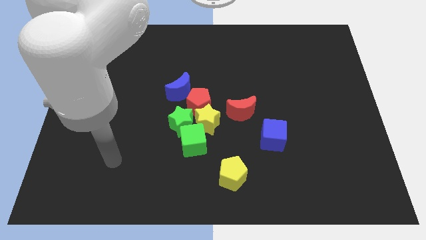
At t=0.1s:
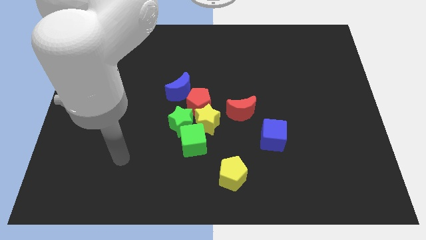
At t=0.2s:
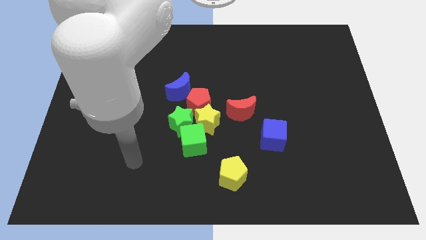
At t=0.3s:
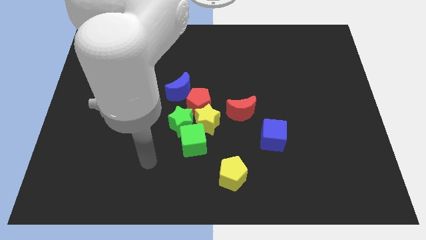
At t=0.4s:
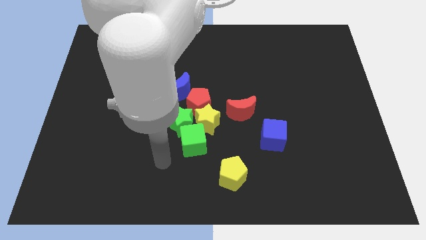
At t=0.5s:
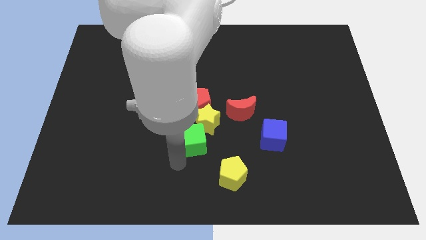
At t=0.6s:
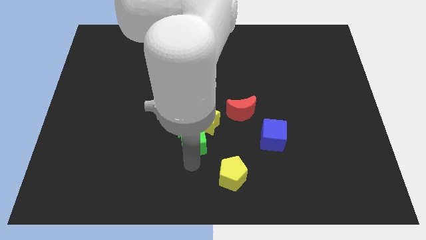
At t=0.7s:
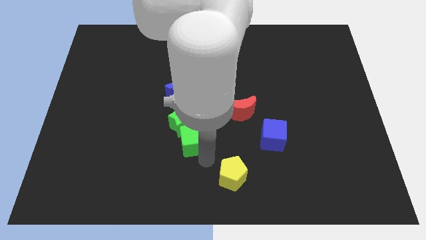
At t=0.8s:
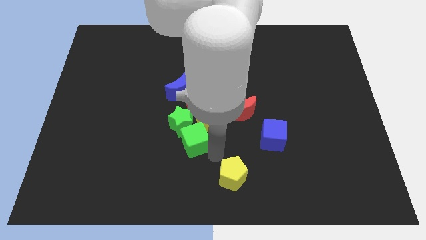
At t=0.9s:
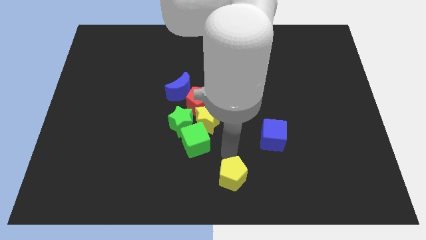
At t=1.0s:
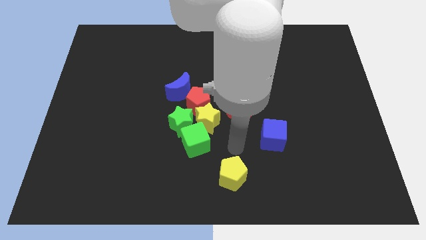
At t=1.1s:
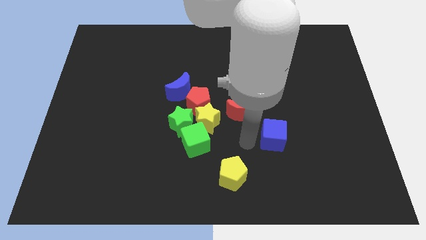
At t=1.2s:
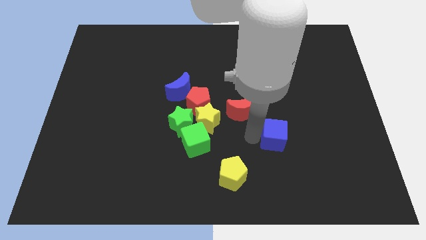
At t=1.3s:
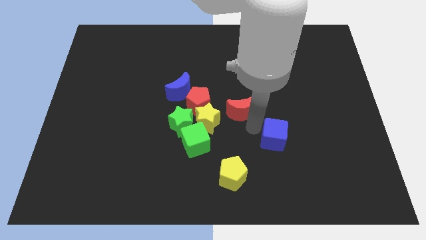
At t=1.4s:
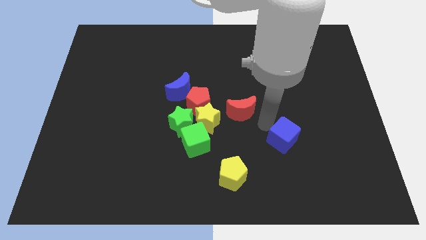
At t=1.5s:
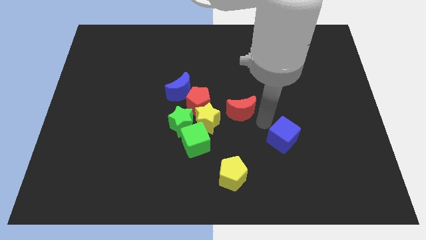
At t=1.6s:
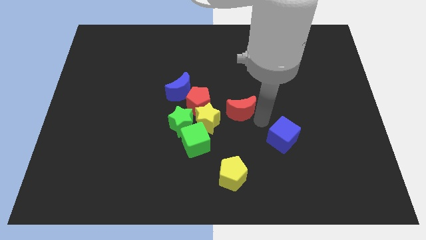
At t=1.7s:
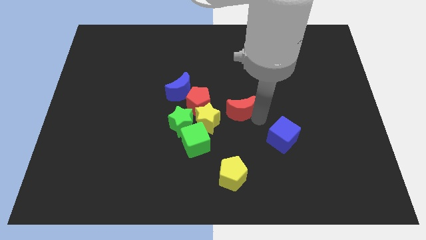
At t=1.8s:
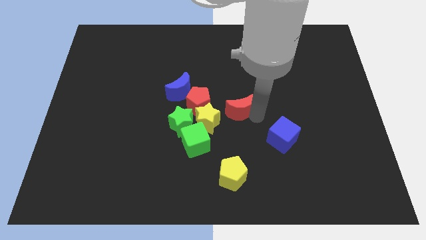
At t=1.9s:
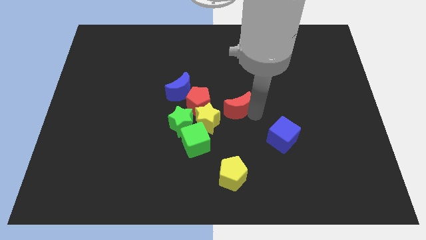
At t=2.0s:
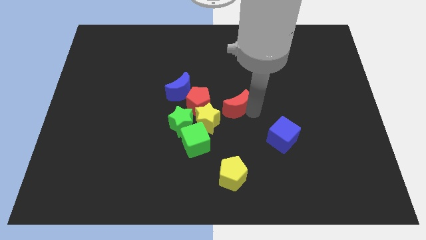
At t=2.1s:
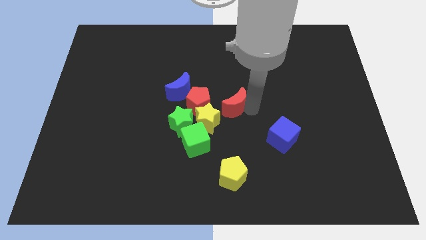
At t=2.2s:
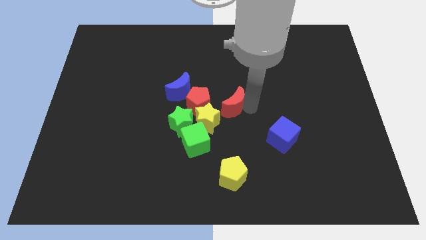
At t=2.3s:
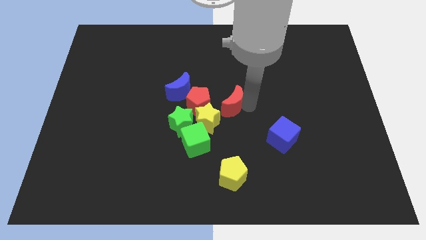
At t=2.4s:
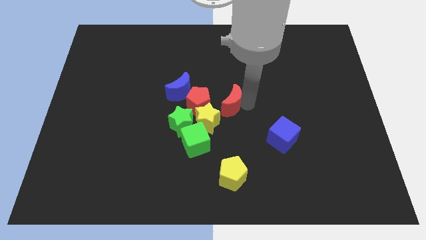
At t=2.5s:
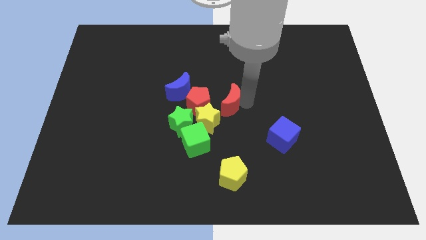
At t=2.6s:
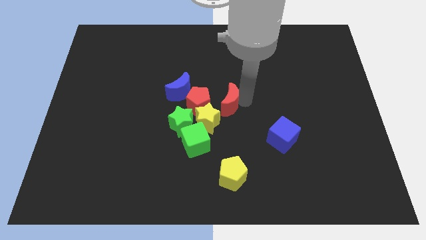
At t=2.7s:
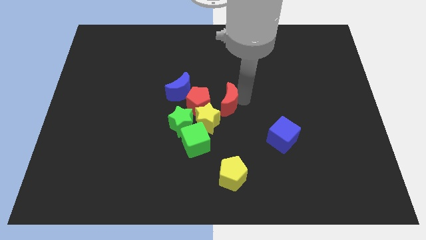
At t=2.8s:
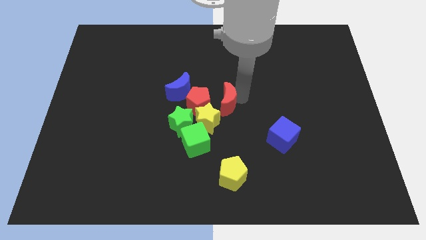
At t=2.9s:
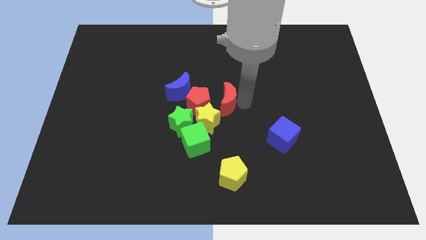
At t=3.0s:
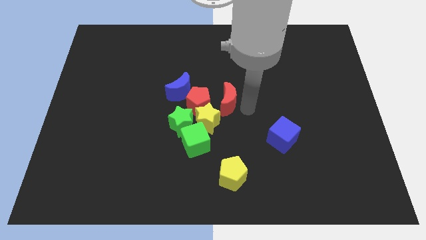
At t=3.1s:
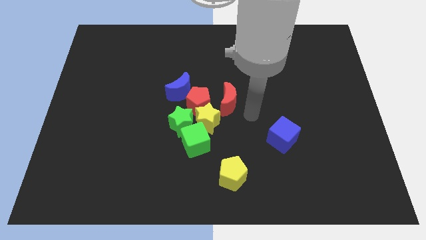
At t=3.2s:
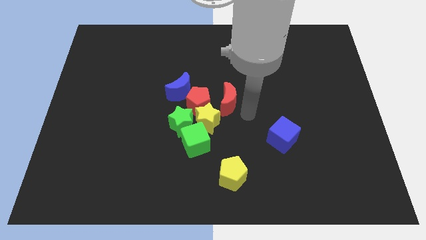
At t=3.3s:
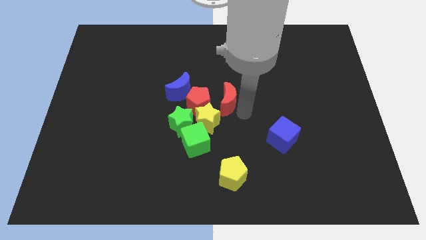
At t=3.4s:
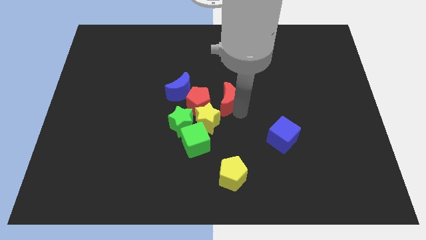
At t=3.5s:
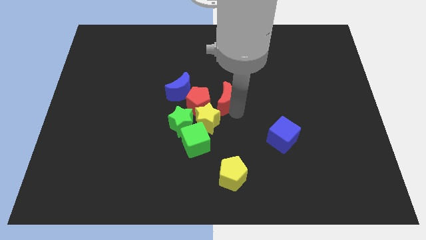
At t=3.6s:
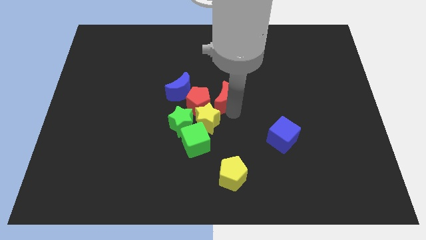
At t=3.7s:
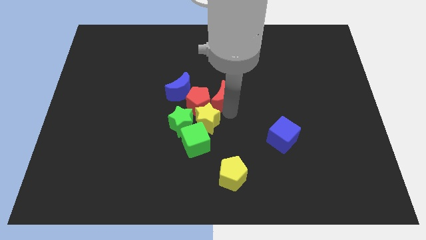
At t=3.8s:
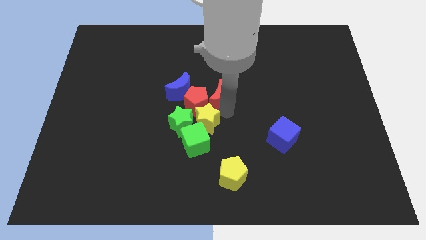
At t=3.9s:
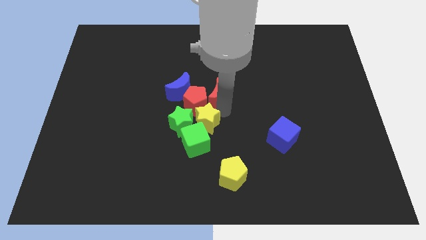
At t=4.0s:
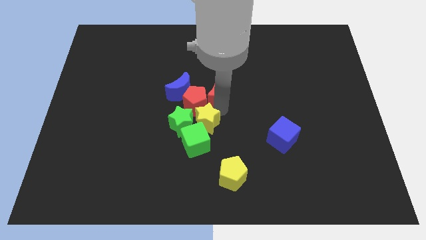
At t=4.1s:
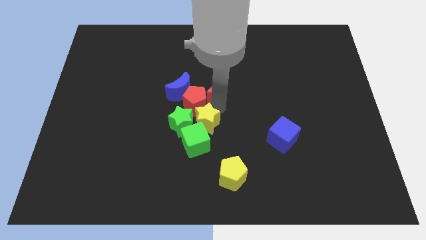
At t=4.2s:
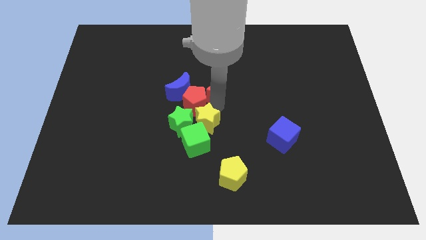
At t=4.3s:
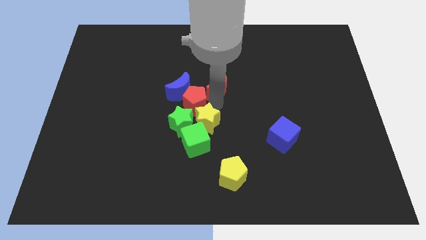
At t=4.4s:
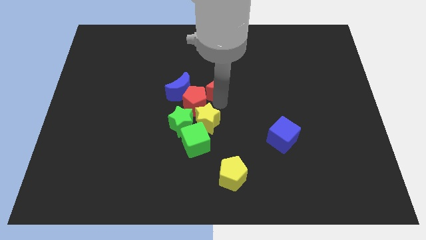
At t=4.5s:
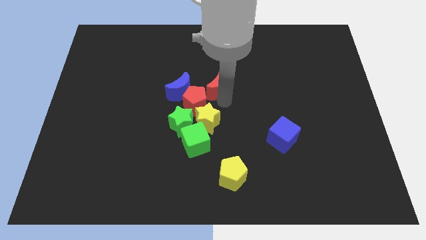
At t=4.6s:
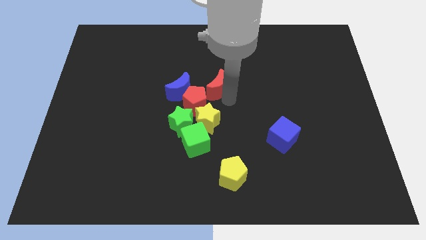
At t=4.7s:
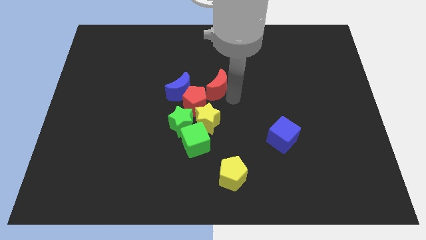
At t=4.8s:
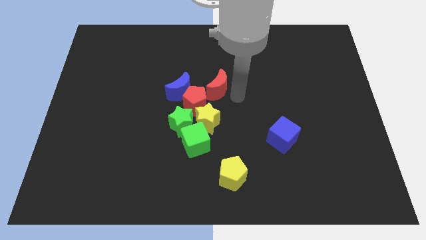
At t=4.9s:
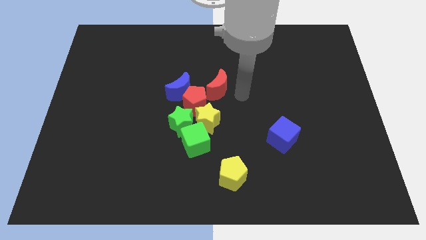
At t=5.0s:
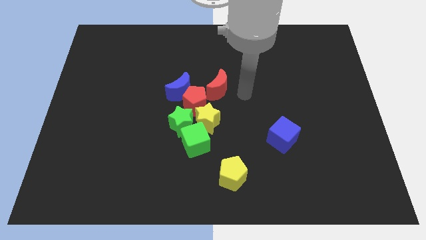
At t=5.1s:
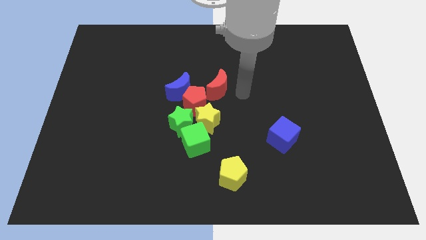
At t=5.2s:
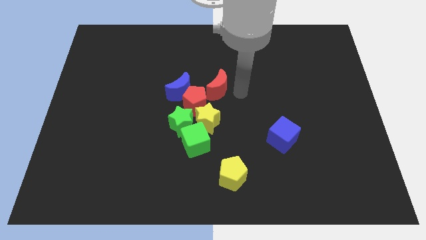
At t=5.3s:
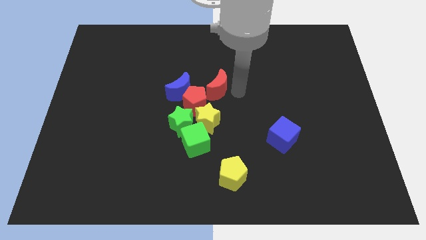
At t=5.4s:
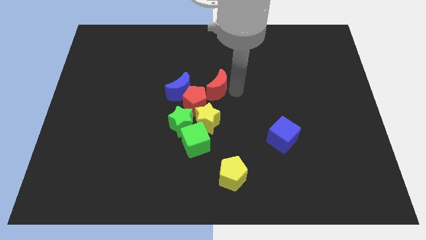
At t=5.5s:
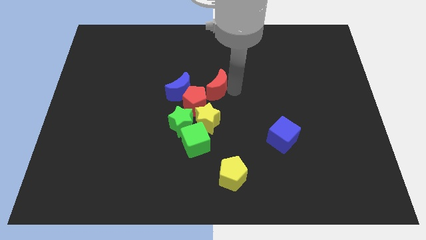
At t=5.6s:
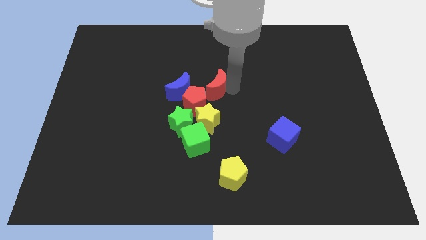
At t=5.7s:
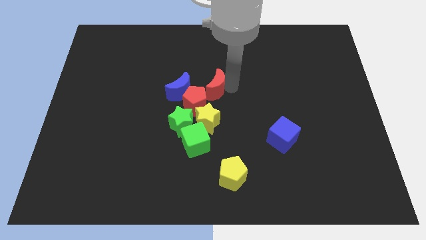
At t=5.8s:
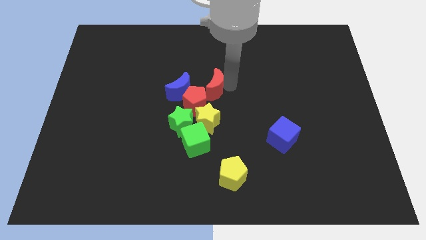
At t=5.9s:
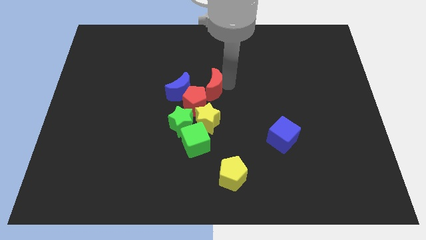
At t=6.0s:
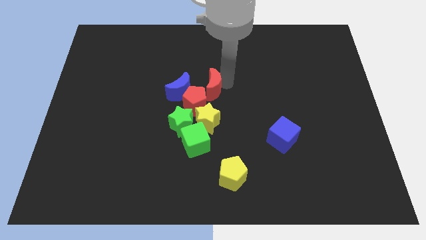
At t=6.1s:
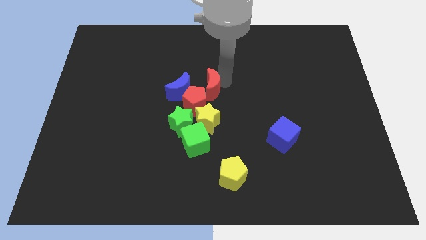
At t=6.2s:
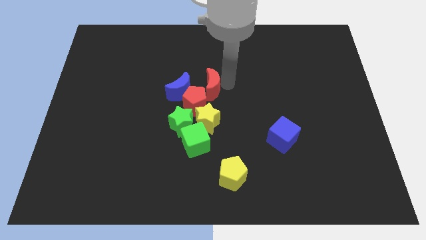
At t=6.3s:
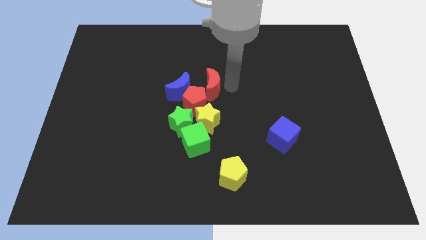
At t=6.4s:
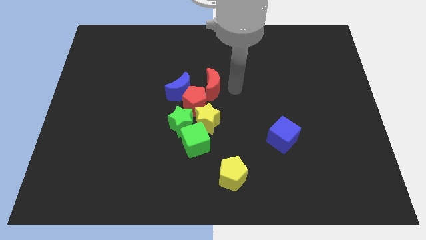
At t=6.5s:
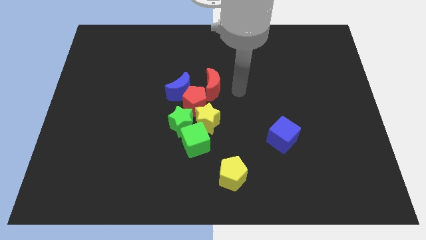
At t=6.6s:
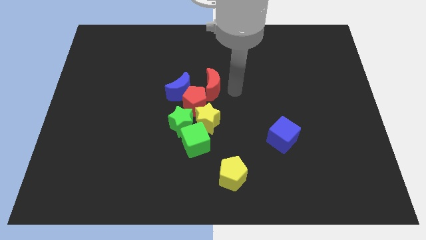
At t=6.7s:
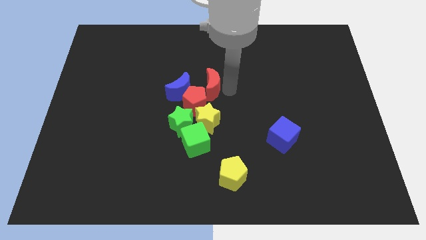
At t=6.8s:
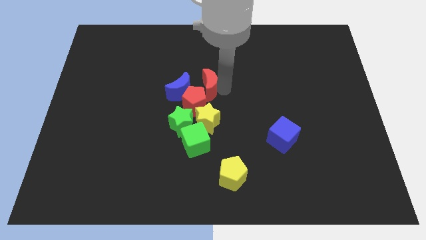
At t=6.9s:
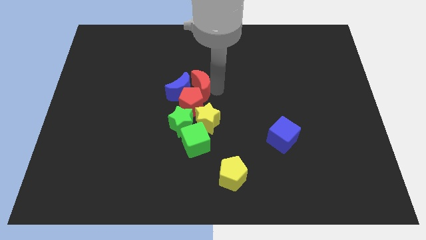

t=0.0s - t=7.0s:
slightly push the red moon left

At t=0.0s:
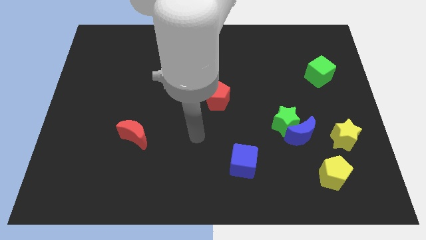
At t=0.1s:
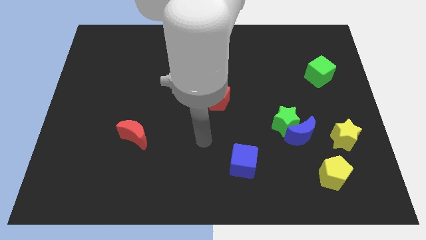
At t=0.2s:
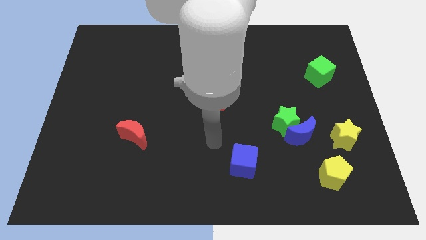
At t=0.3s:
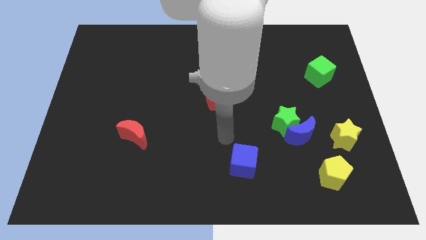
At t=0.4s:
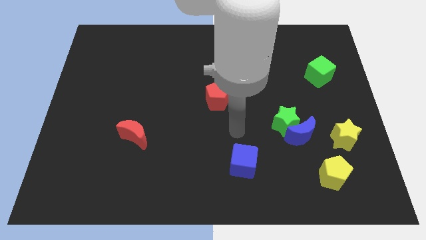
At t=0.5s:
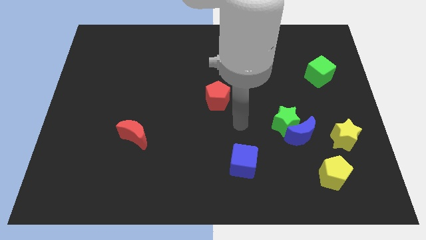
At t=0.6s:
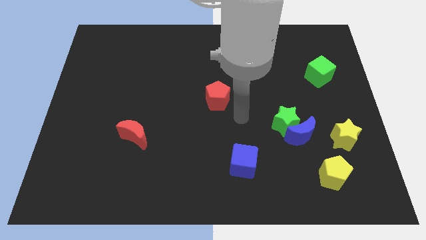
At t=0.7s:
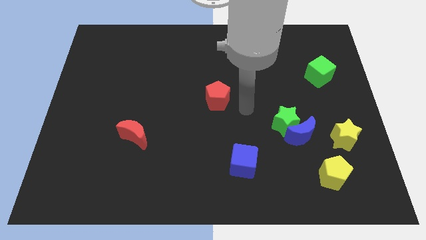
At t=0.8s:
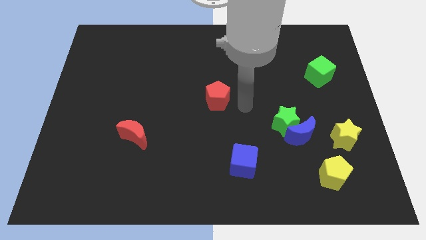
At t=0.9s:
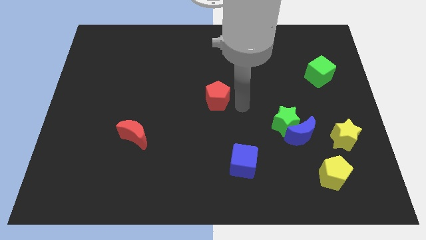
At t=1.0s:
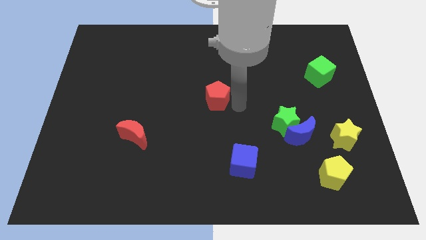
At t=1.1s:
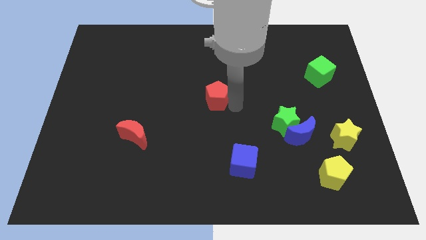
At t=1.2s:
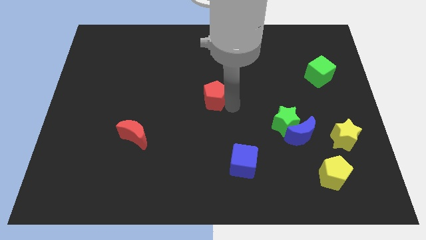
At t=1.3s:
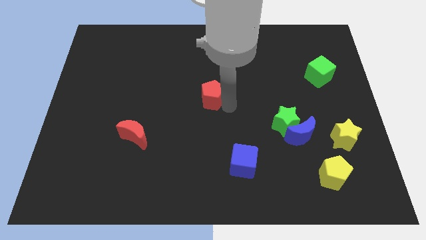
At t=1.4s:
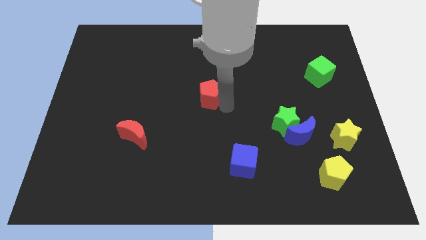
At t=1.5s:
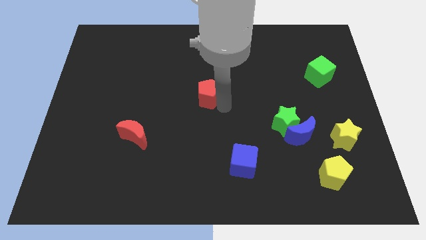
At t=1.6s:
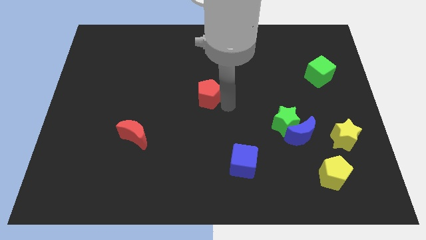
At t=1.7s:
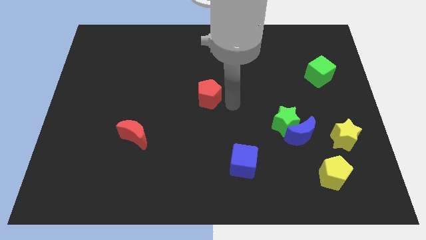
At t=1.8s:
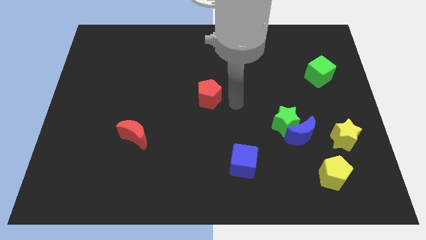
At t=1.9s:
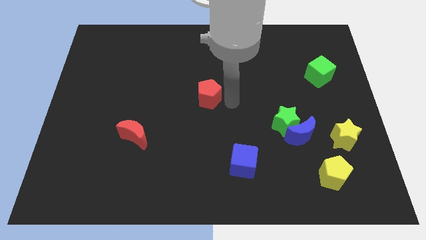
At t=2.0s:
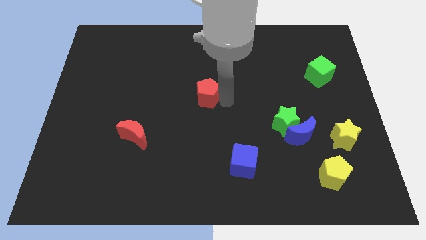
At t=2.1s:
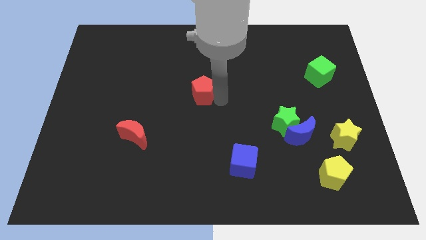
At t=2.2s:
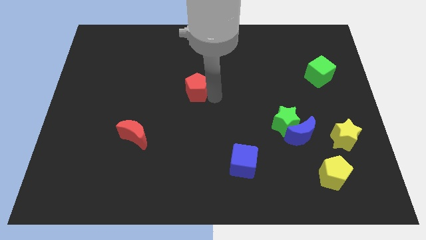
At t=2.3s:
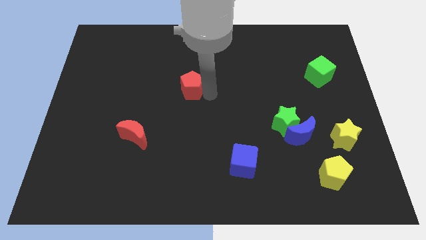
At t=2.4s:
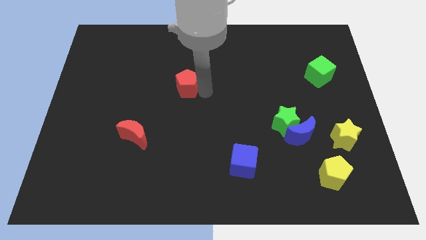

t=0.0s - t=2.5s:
push the red pentagon to the left slightly
